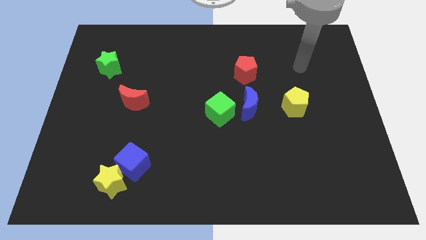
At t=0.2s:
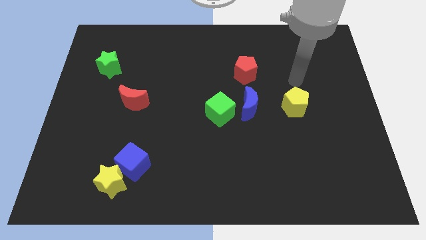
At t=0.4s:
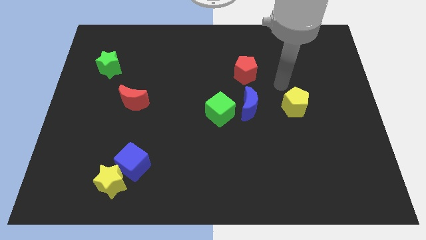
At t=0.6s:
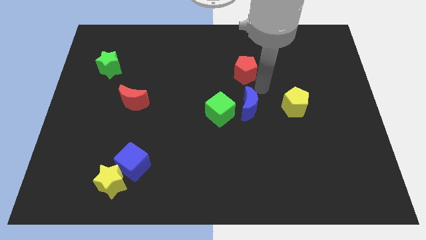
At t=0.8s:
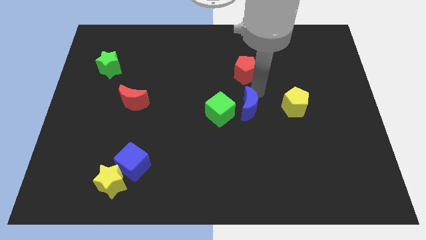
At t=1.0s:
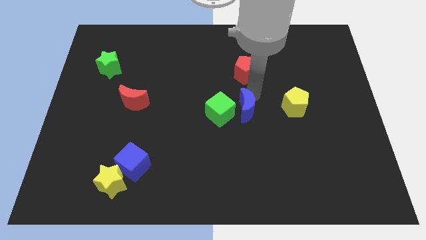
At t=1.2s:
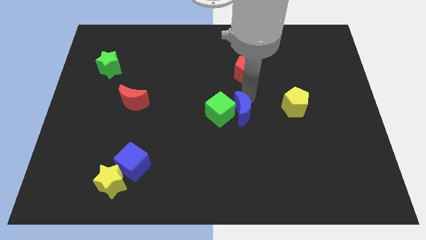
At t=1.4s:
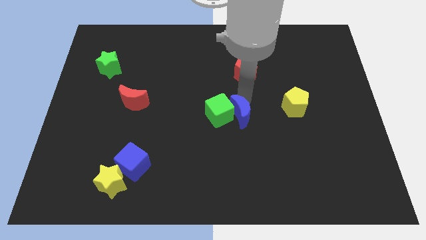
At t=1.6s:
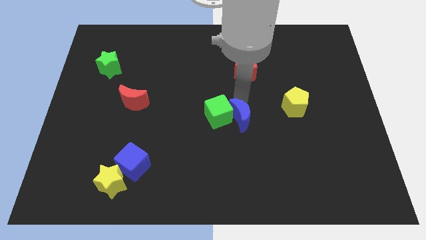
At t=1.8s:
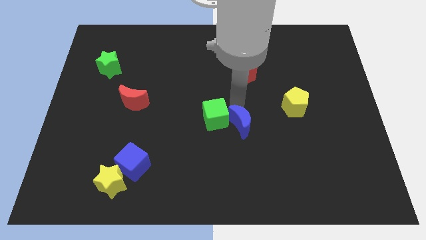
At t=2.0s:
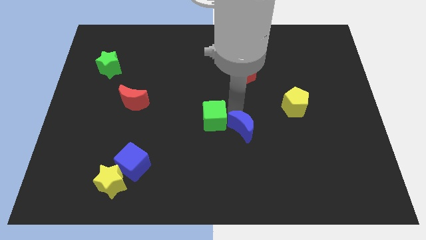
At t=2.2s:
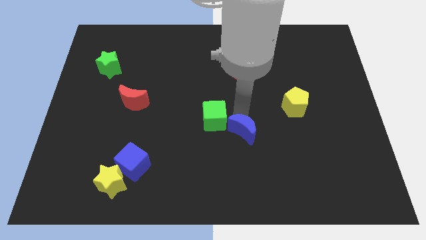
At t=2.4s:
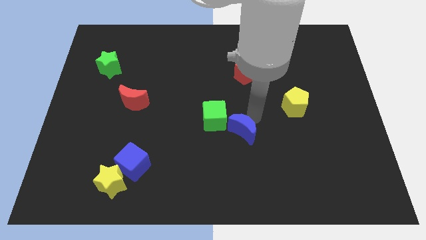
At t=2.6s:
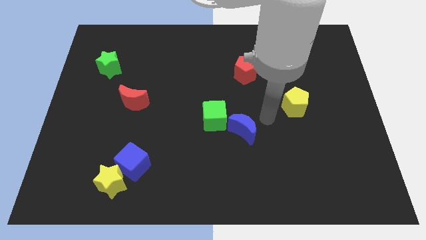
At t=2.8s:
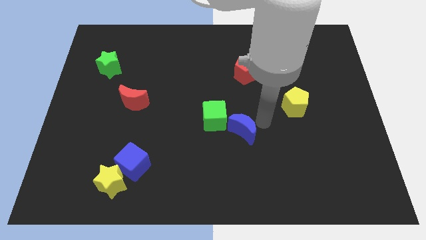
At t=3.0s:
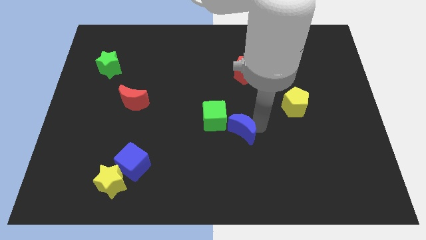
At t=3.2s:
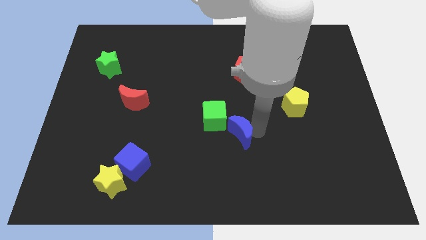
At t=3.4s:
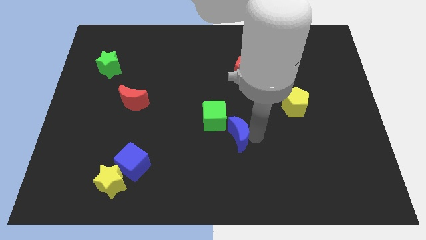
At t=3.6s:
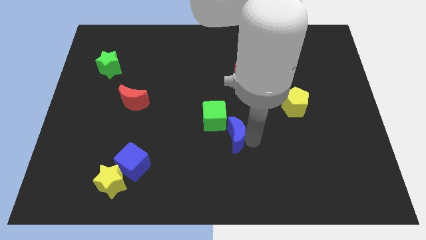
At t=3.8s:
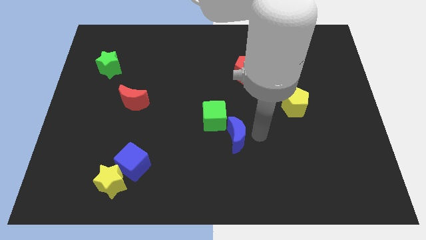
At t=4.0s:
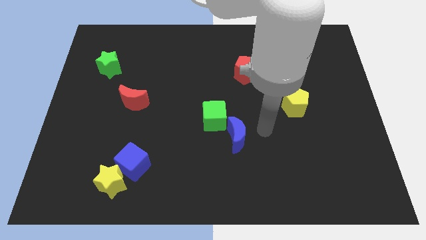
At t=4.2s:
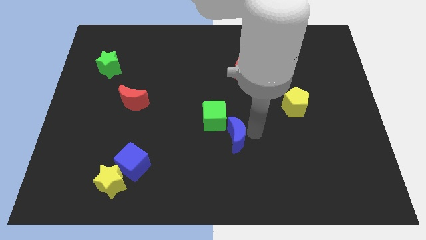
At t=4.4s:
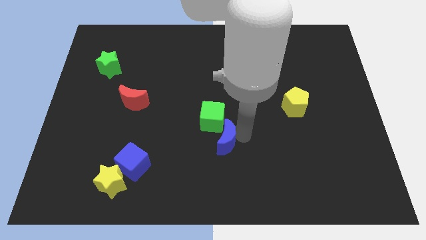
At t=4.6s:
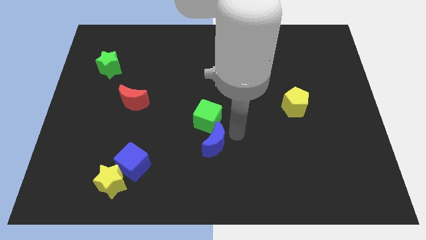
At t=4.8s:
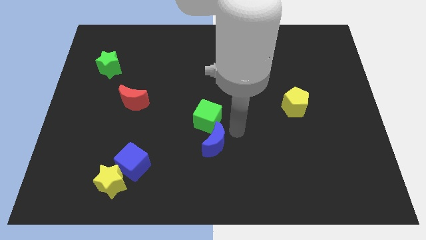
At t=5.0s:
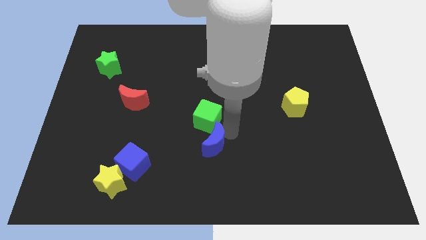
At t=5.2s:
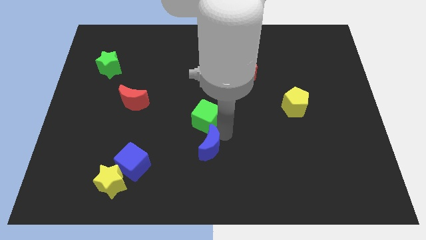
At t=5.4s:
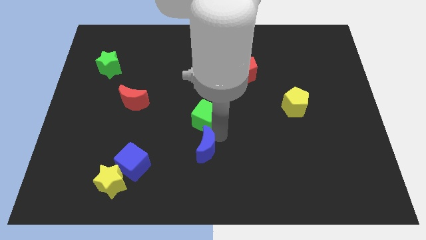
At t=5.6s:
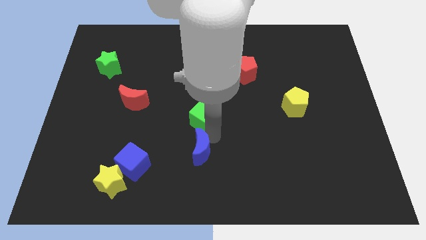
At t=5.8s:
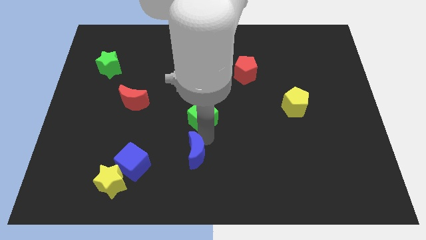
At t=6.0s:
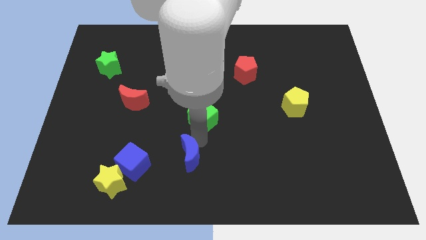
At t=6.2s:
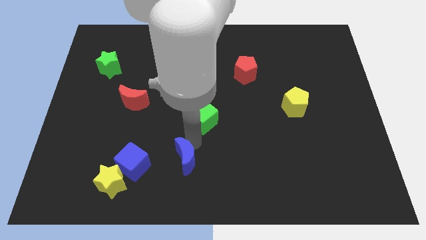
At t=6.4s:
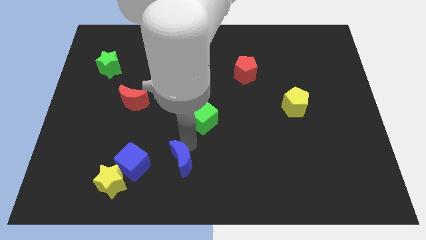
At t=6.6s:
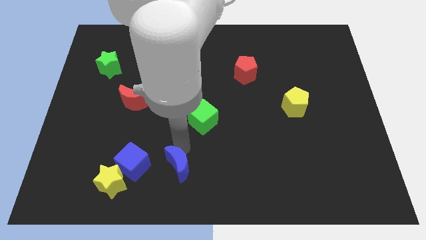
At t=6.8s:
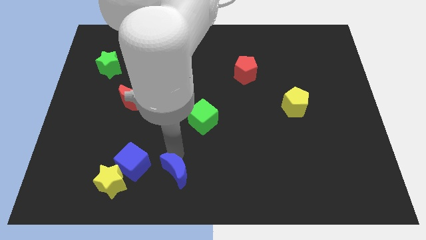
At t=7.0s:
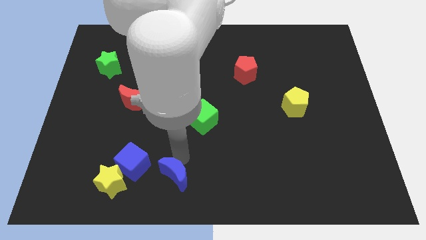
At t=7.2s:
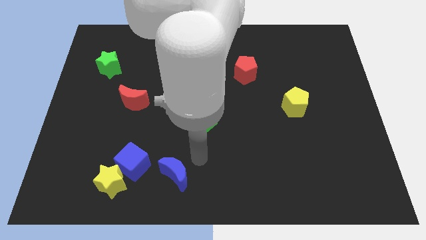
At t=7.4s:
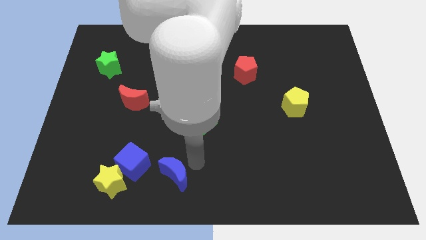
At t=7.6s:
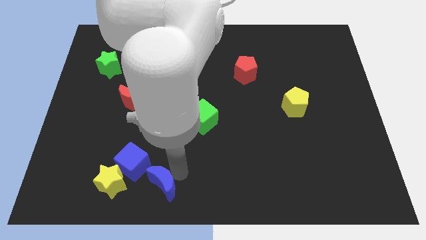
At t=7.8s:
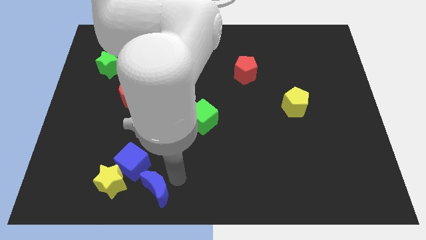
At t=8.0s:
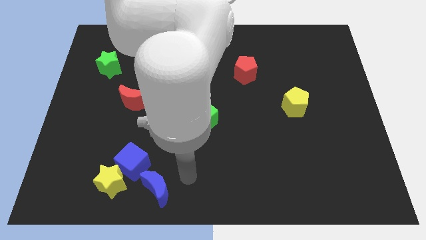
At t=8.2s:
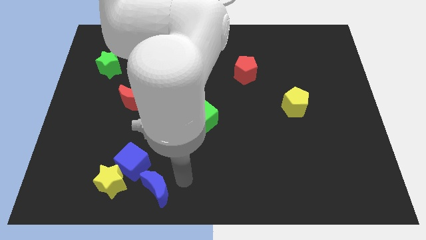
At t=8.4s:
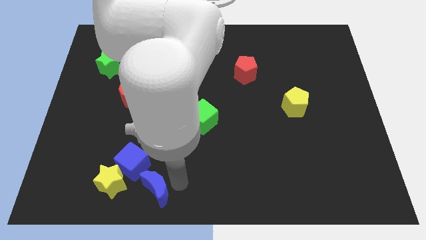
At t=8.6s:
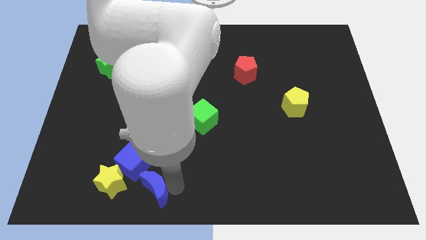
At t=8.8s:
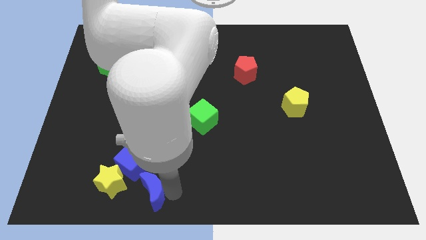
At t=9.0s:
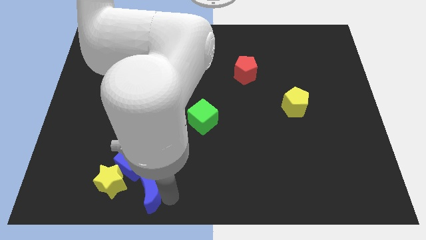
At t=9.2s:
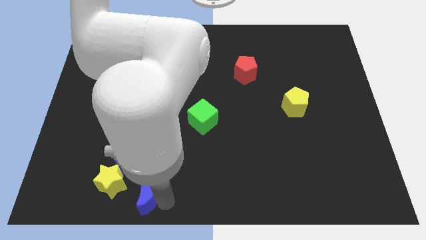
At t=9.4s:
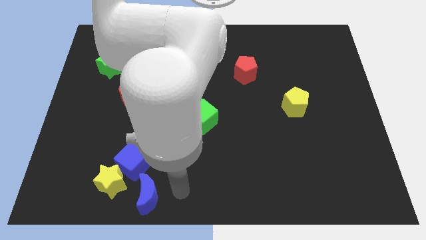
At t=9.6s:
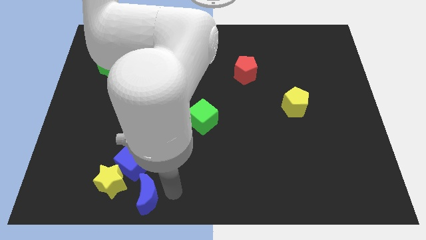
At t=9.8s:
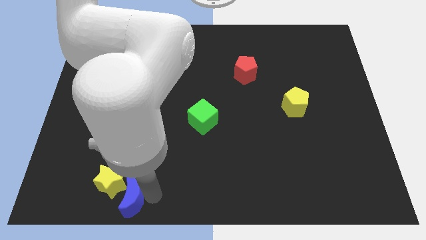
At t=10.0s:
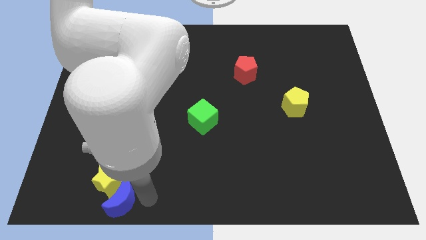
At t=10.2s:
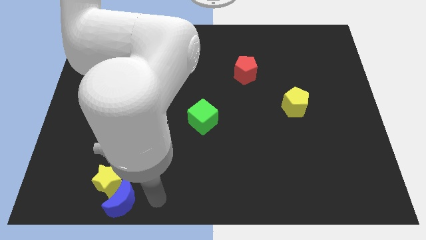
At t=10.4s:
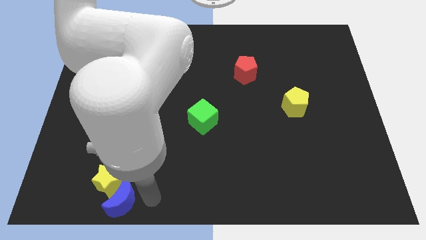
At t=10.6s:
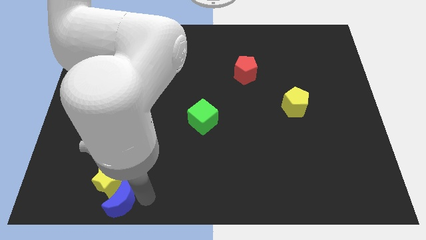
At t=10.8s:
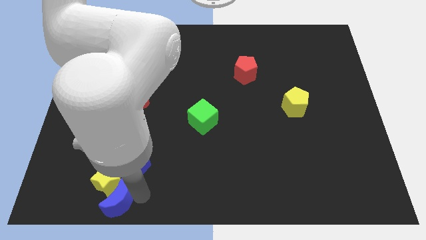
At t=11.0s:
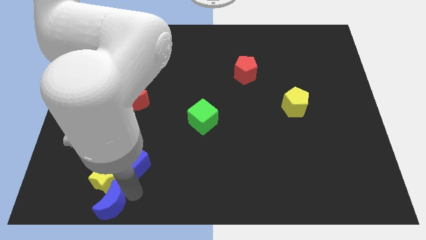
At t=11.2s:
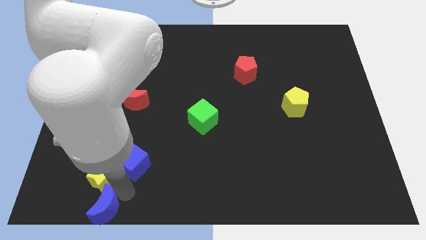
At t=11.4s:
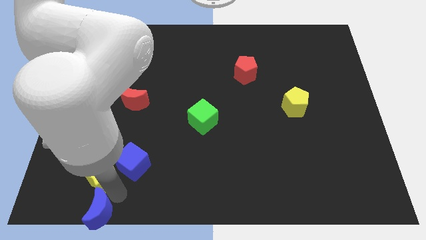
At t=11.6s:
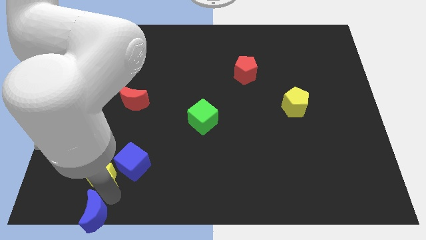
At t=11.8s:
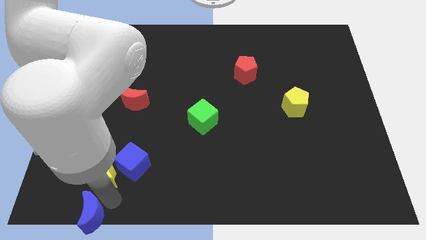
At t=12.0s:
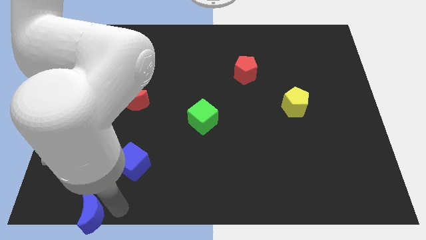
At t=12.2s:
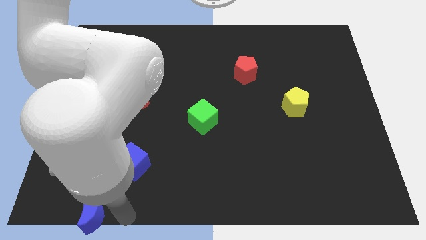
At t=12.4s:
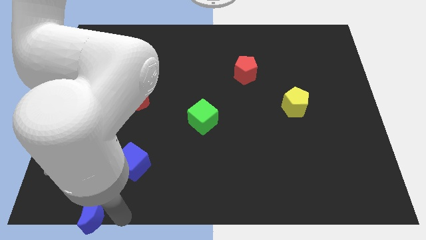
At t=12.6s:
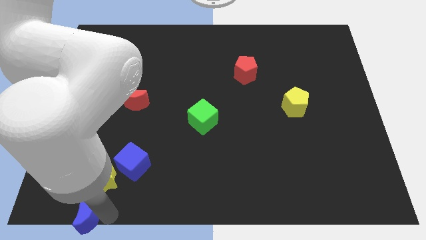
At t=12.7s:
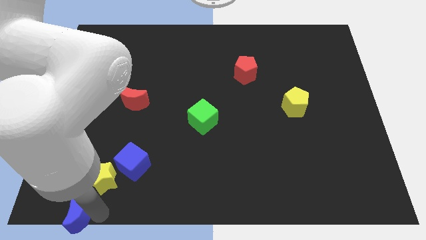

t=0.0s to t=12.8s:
push the blue moon to the bottom left
